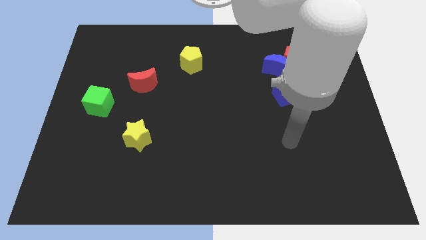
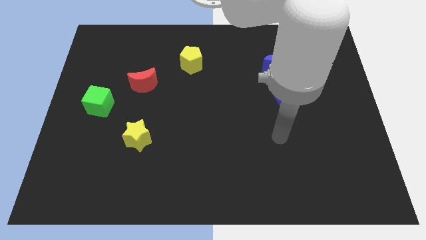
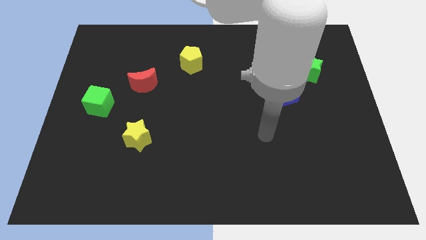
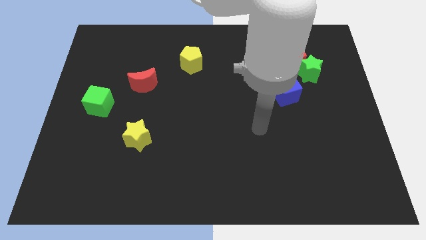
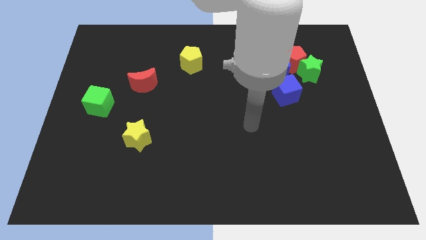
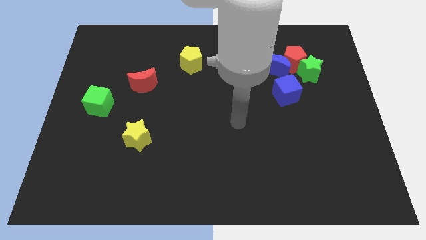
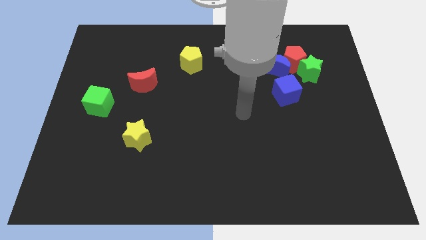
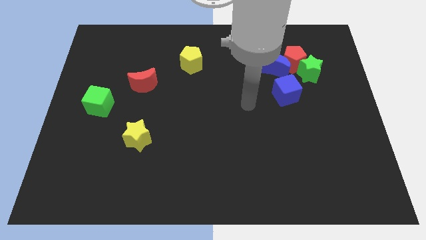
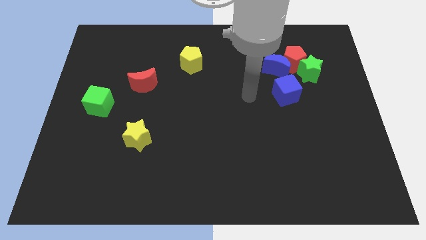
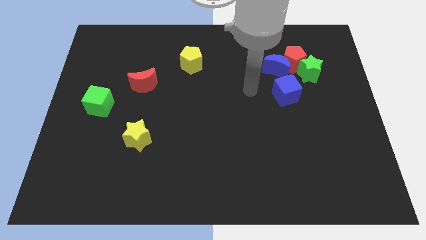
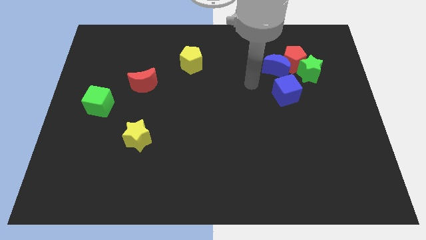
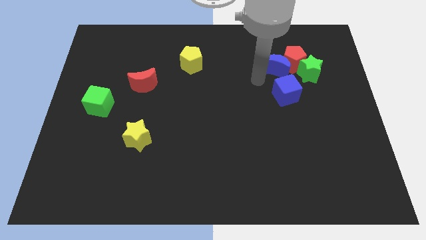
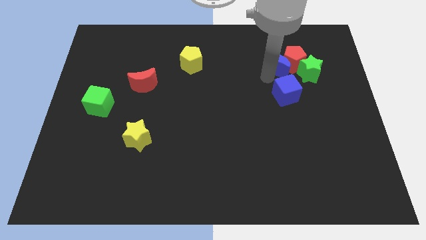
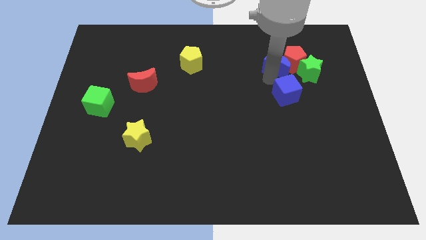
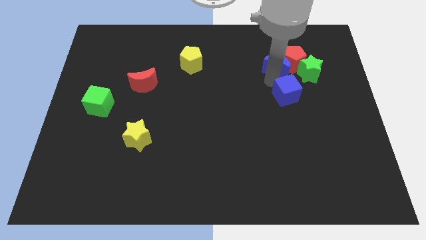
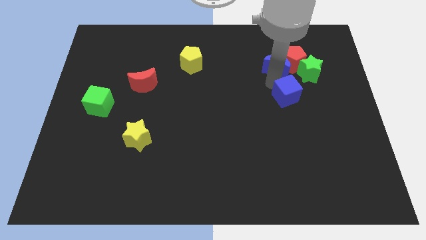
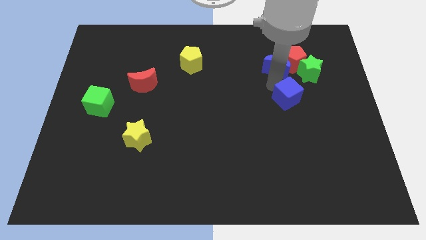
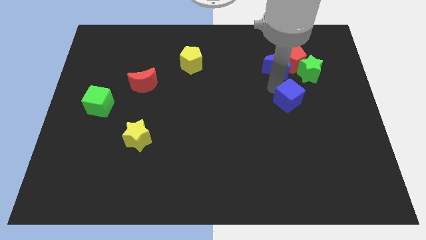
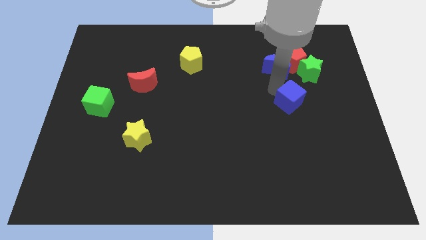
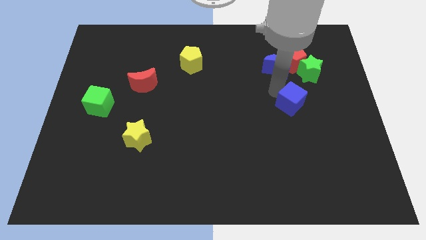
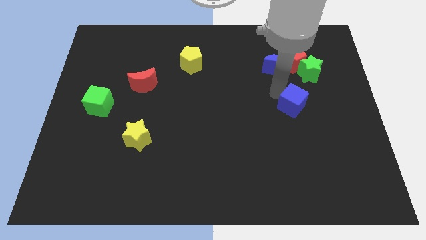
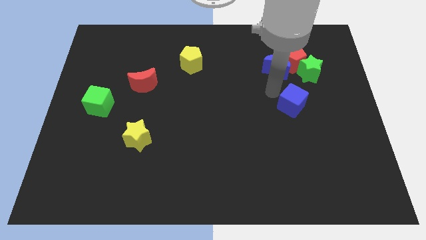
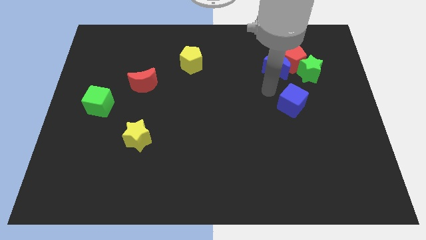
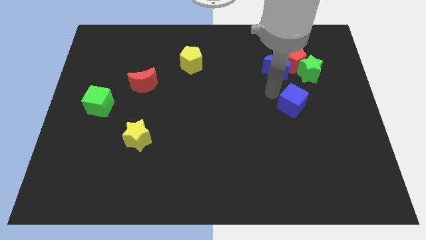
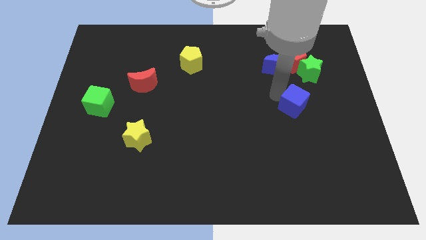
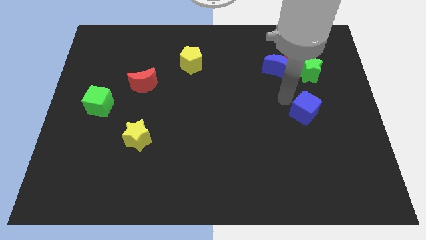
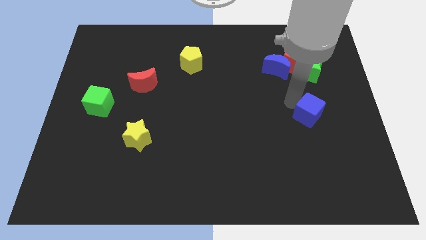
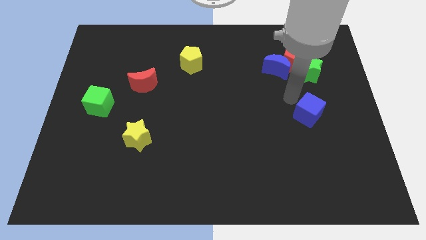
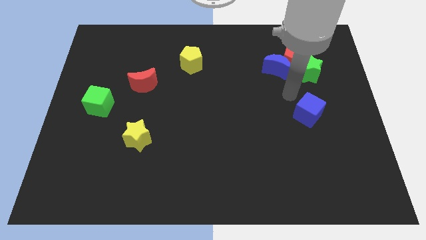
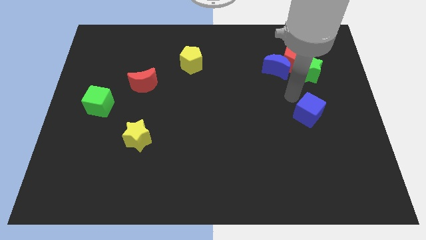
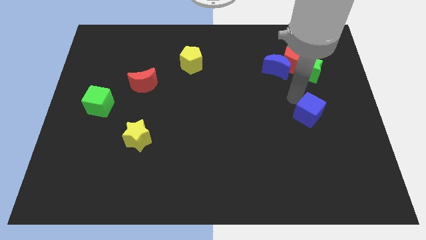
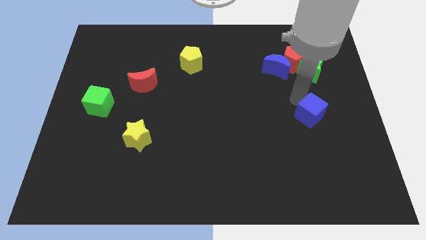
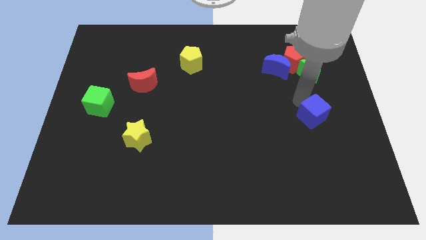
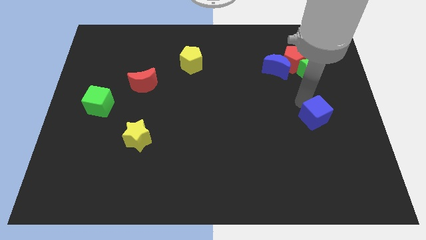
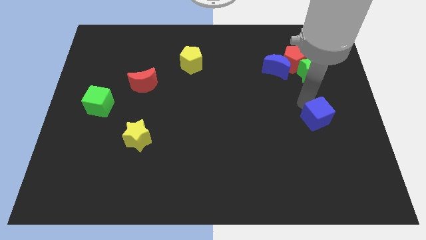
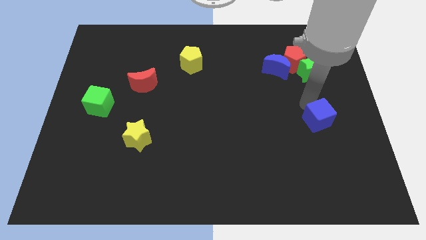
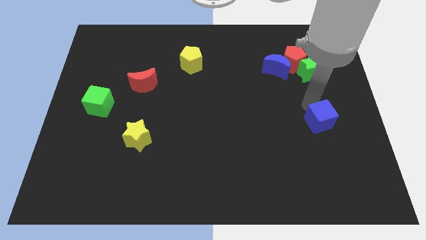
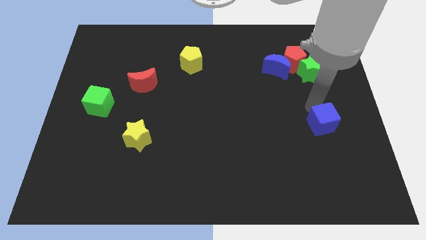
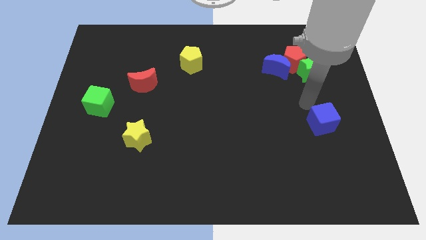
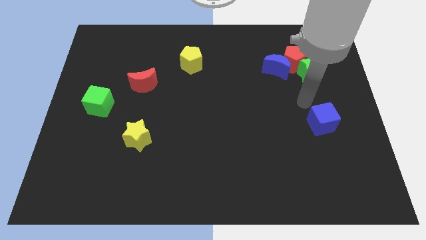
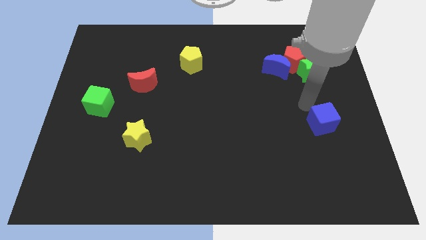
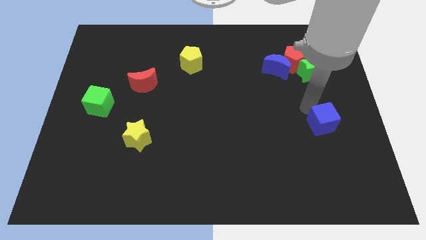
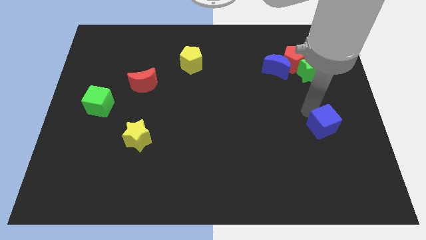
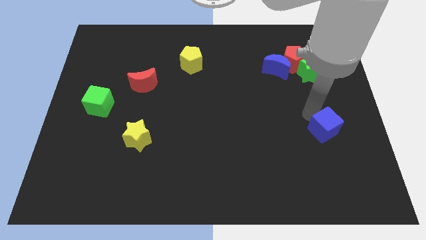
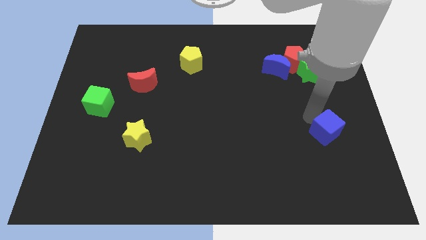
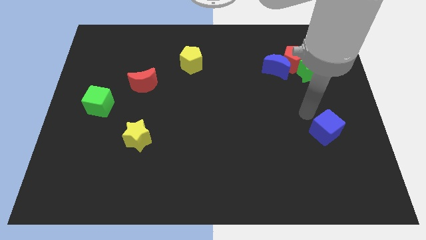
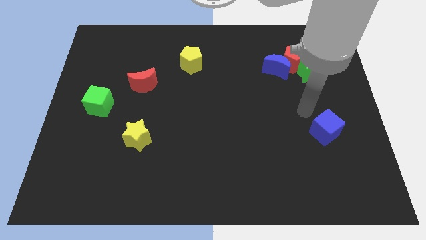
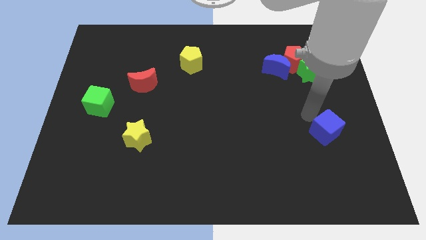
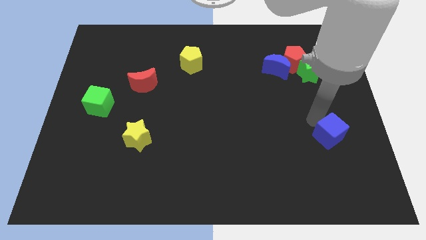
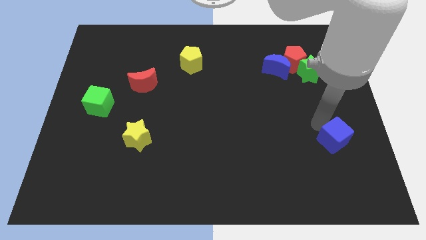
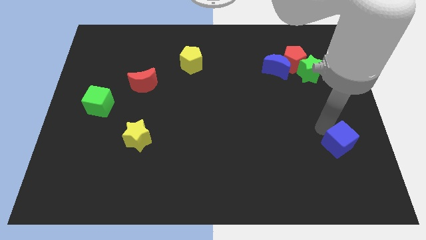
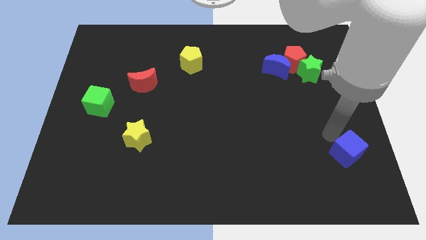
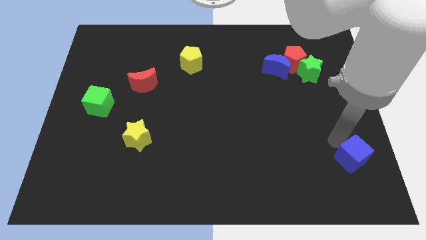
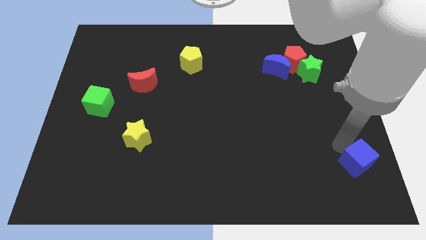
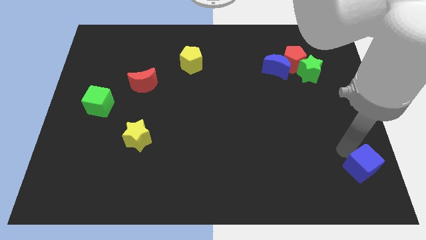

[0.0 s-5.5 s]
slide the blue cube to the lower right corner

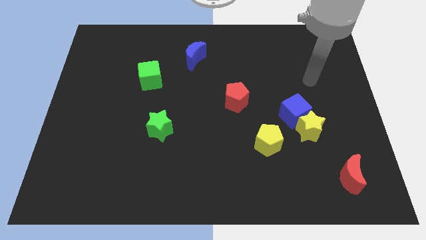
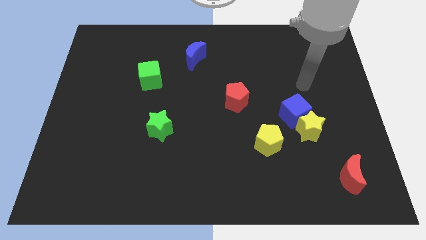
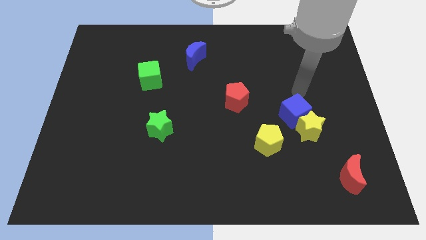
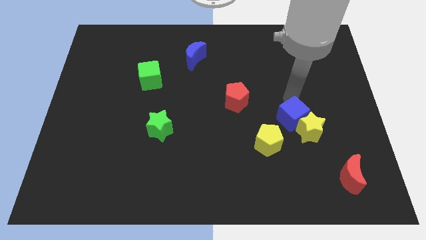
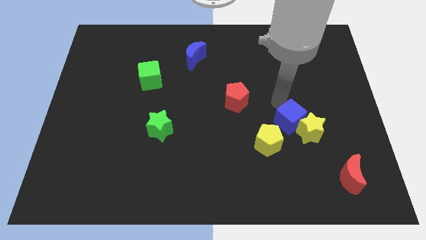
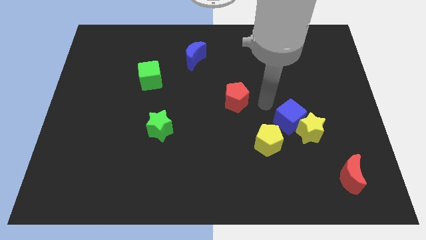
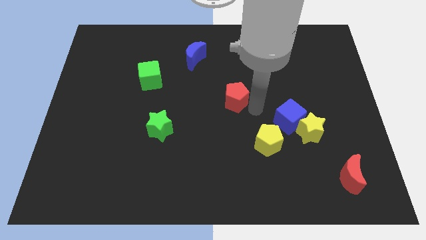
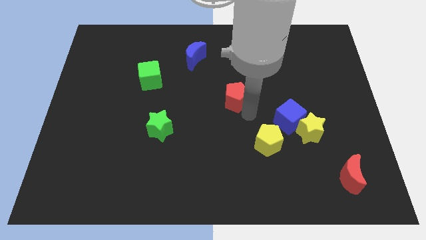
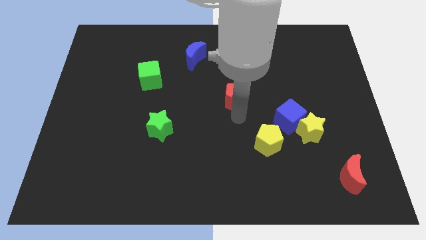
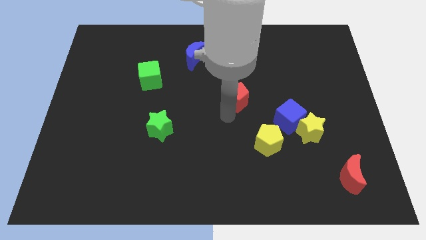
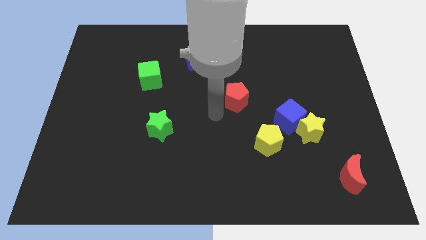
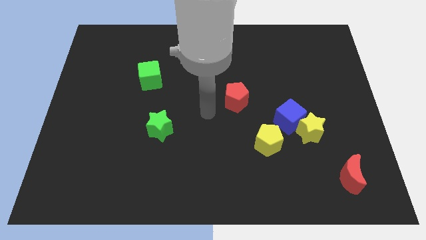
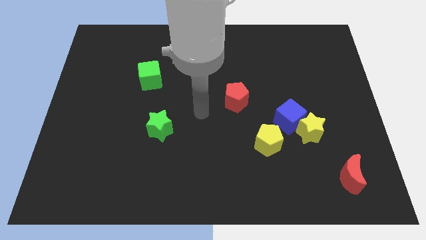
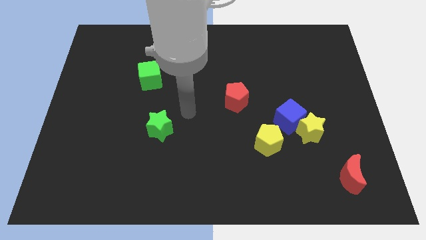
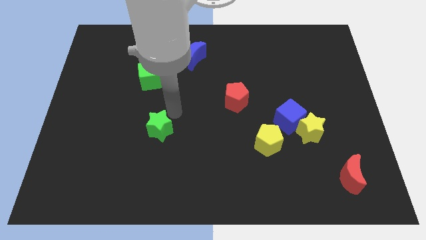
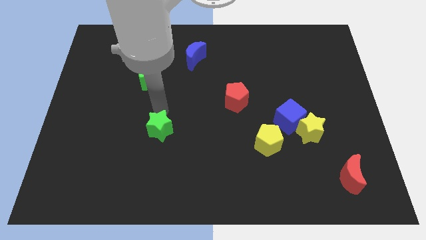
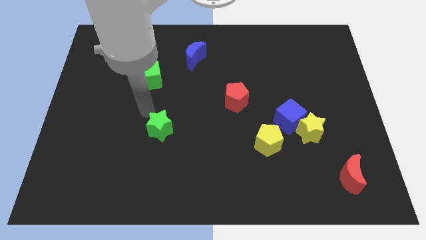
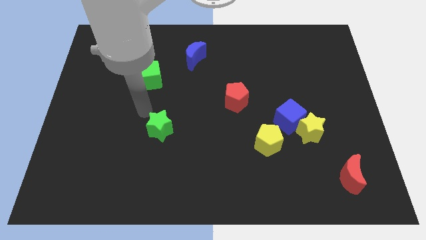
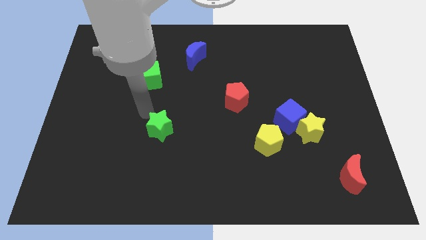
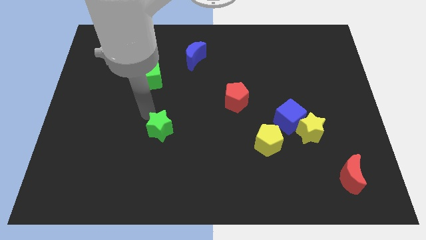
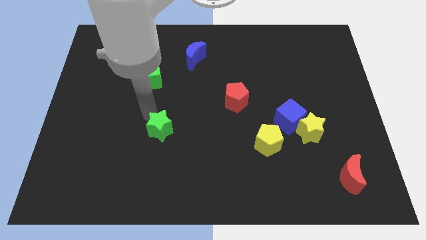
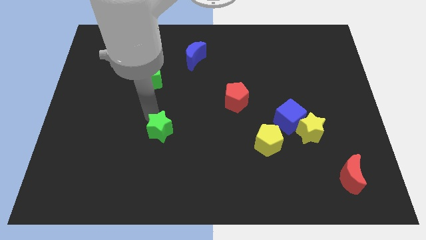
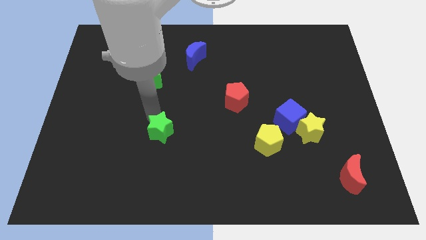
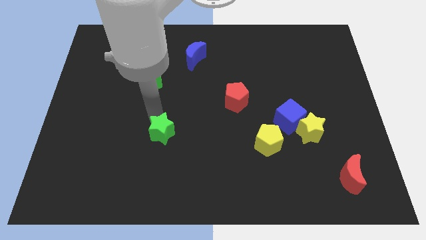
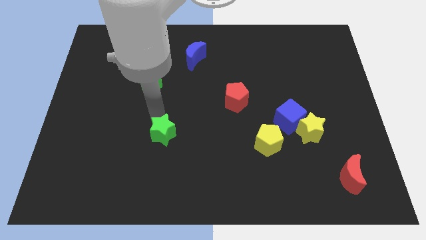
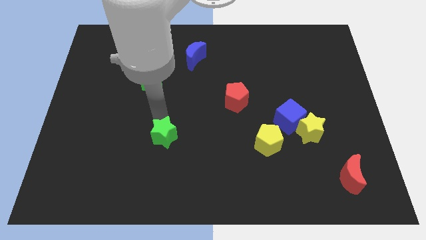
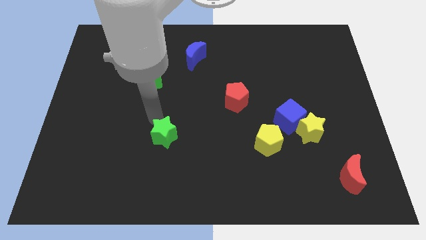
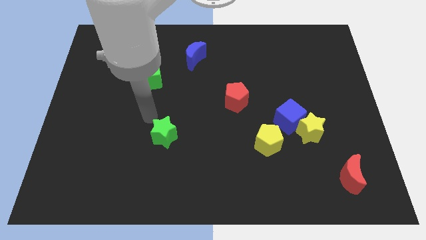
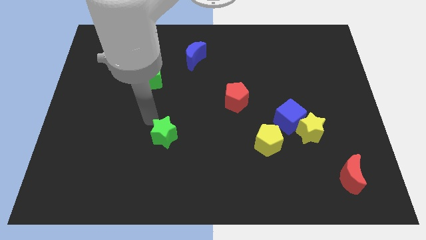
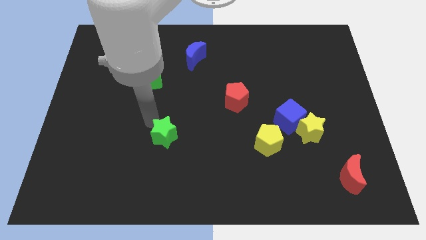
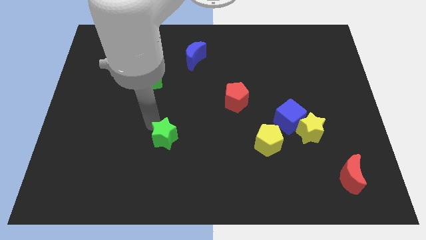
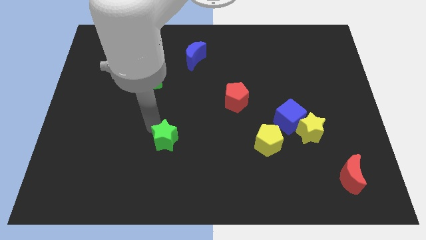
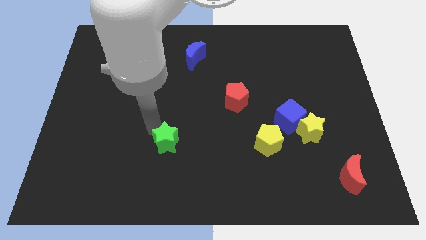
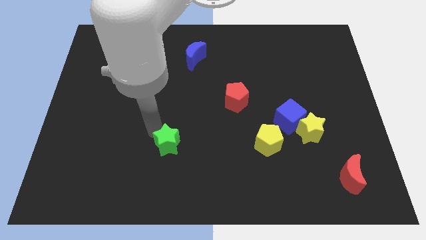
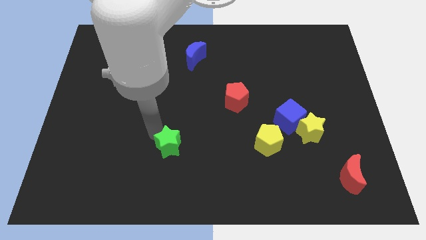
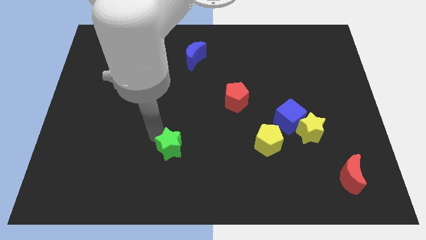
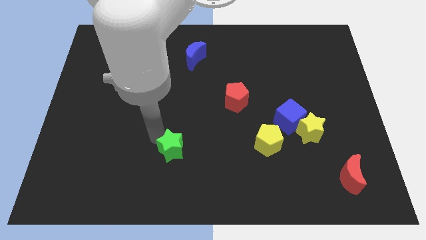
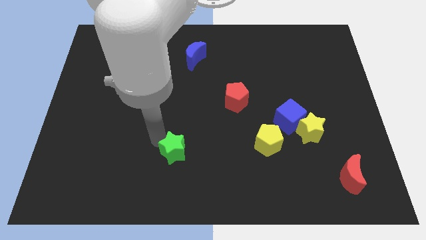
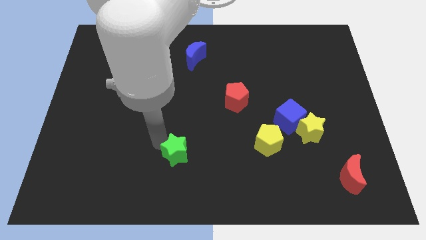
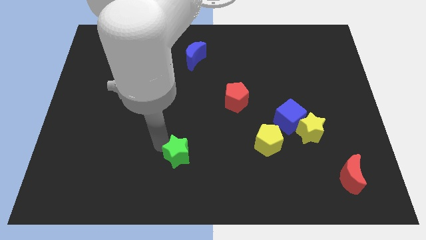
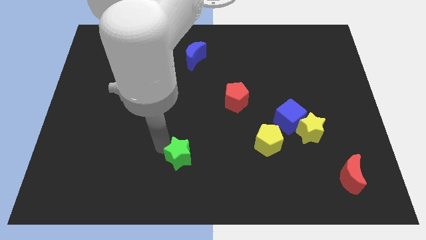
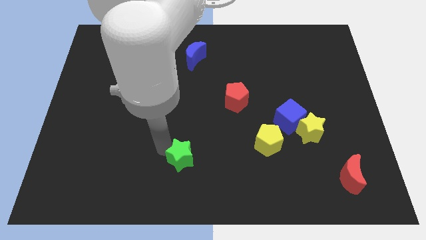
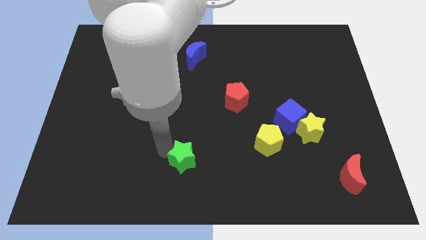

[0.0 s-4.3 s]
push the green star to the bottom
